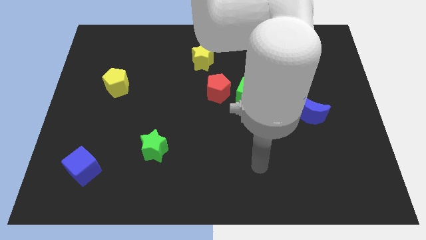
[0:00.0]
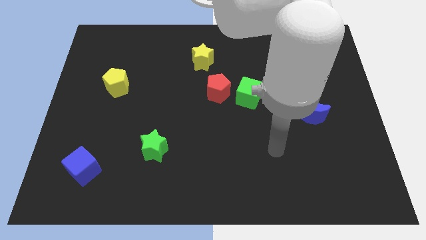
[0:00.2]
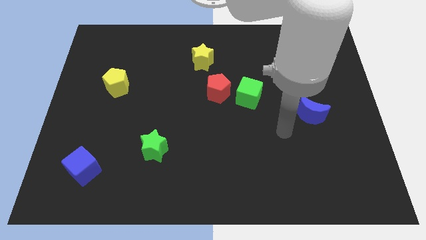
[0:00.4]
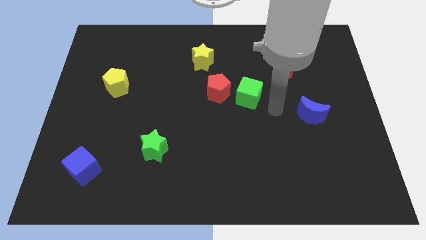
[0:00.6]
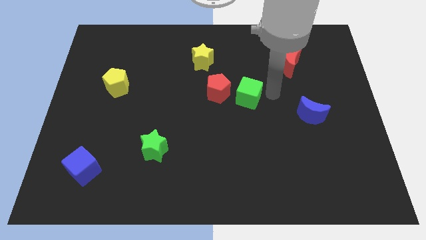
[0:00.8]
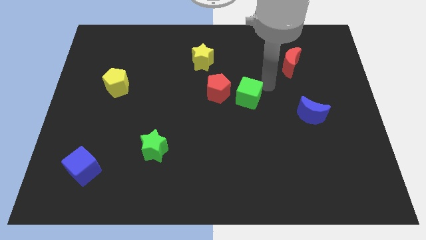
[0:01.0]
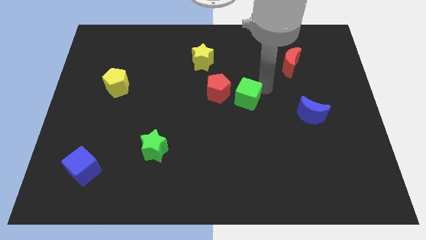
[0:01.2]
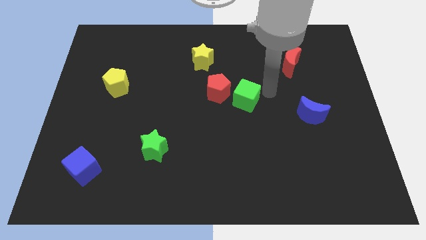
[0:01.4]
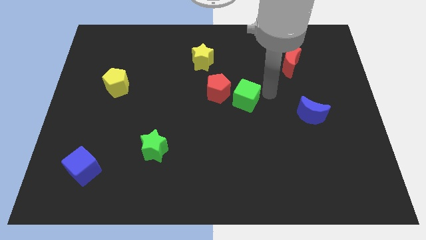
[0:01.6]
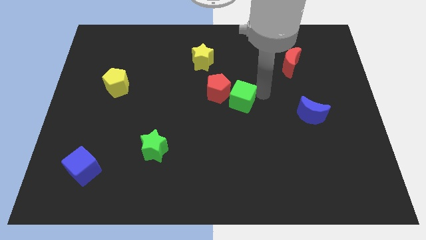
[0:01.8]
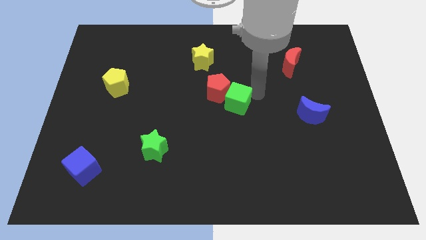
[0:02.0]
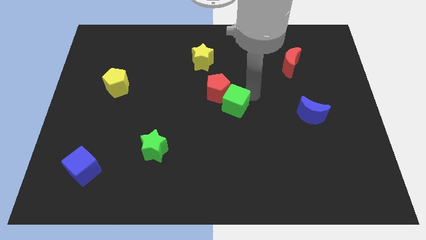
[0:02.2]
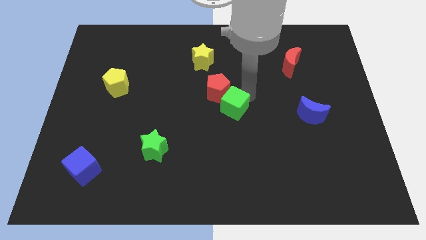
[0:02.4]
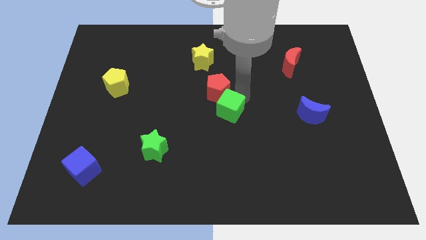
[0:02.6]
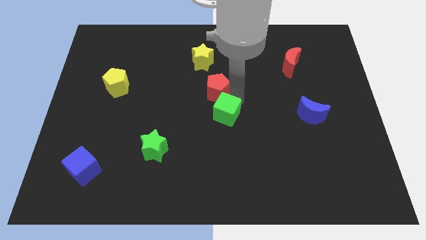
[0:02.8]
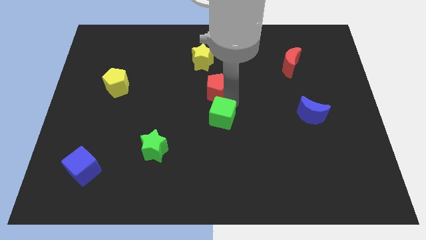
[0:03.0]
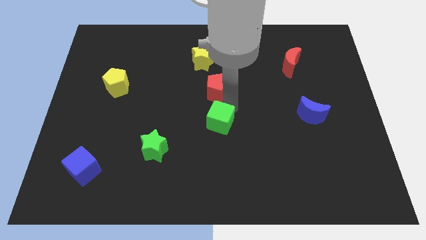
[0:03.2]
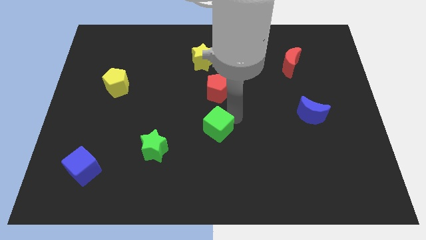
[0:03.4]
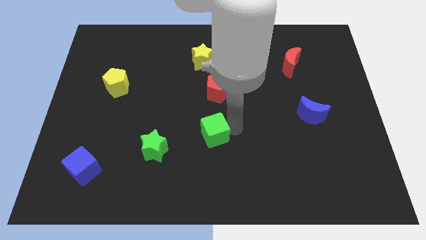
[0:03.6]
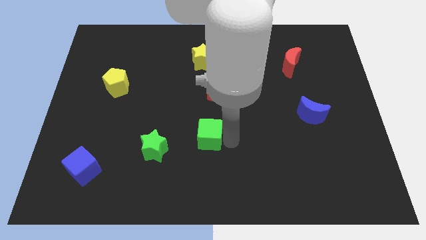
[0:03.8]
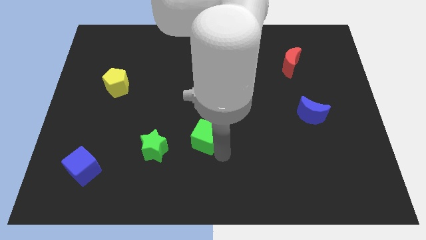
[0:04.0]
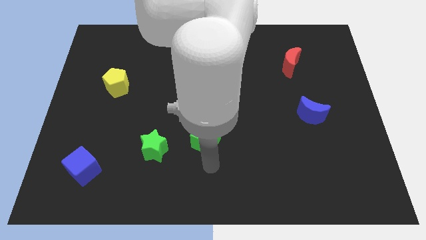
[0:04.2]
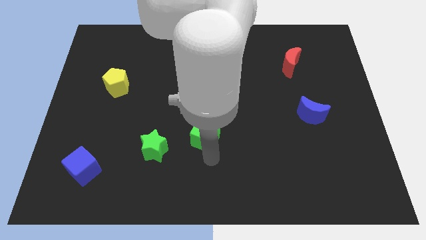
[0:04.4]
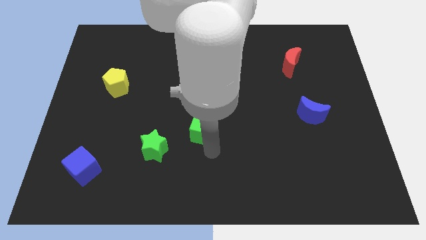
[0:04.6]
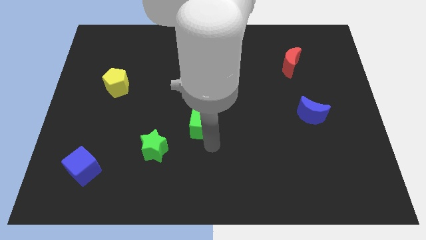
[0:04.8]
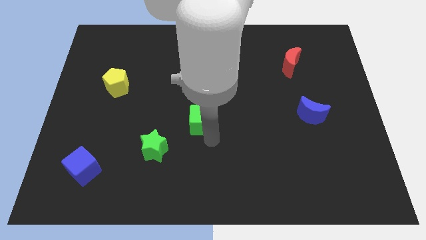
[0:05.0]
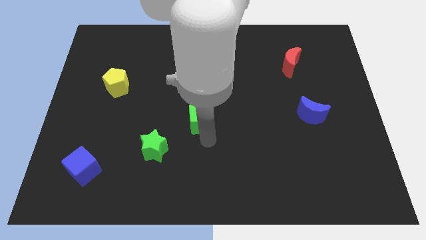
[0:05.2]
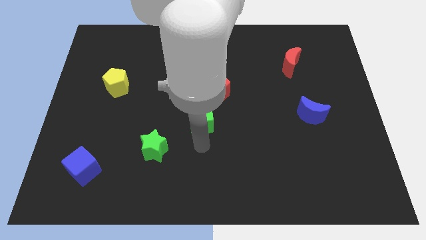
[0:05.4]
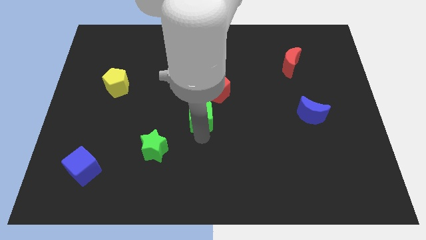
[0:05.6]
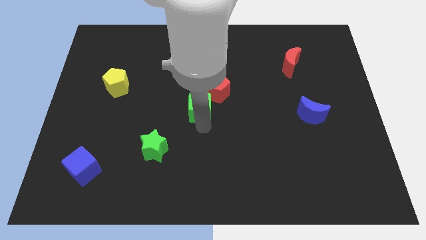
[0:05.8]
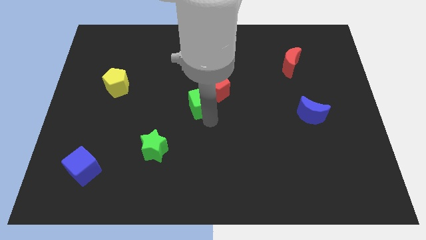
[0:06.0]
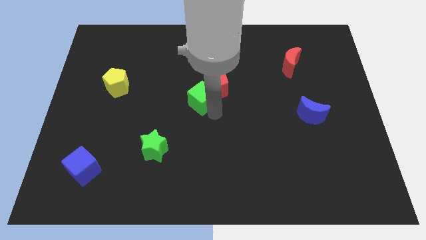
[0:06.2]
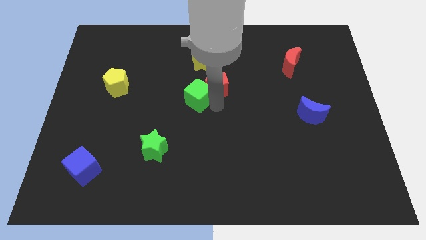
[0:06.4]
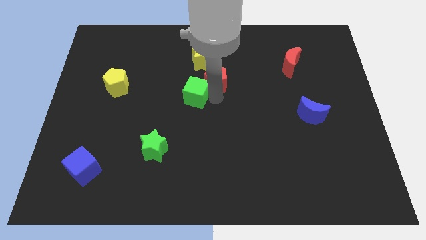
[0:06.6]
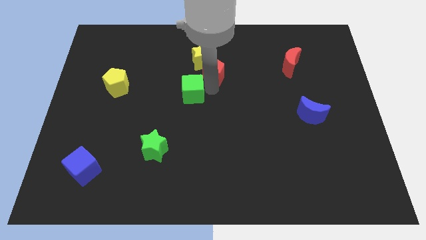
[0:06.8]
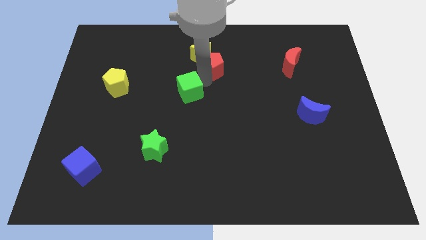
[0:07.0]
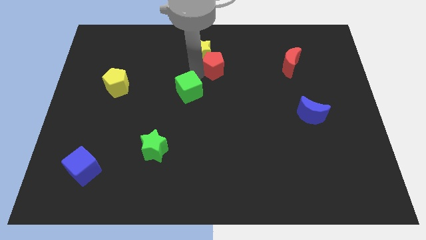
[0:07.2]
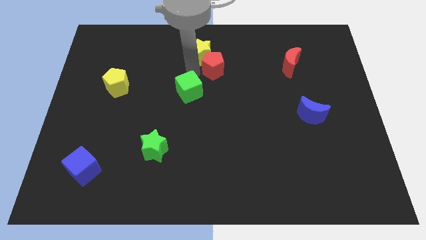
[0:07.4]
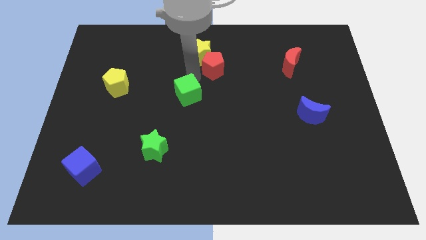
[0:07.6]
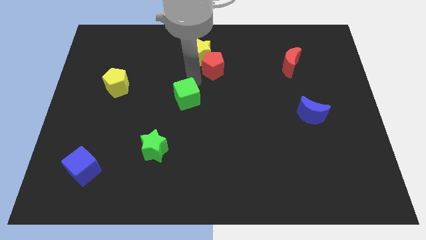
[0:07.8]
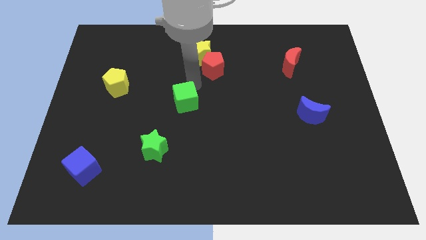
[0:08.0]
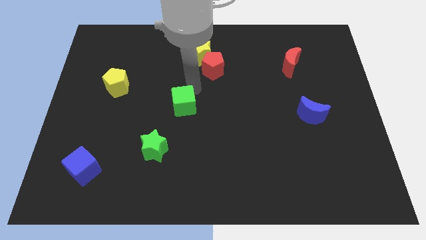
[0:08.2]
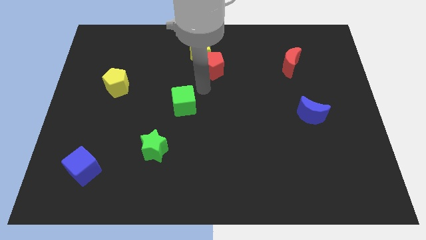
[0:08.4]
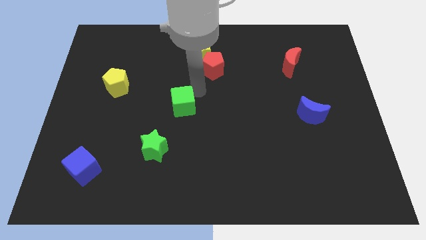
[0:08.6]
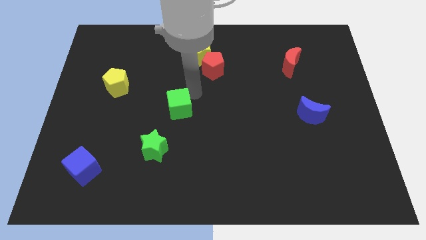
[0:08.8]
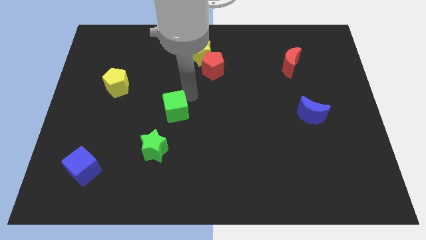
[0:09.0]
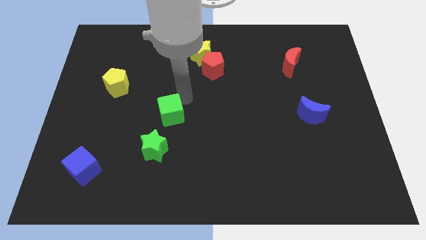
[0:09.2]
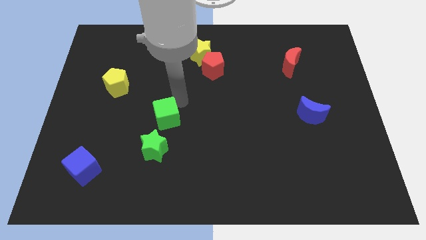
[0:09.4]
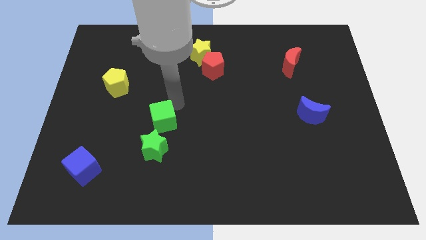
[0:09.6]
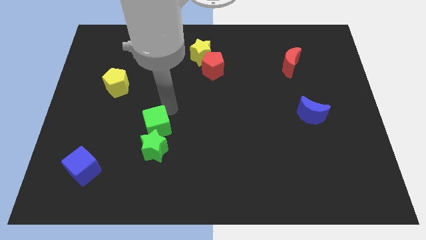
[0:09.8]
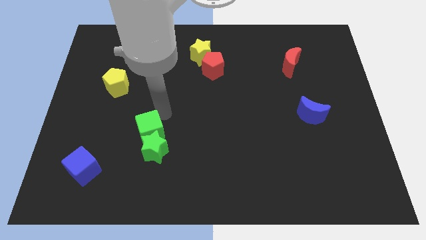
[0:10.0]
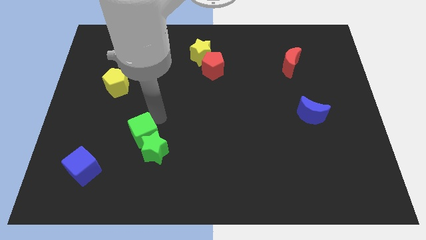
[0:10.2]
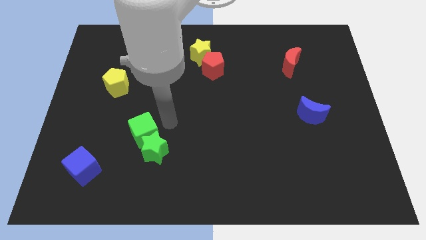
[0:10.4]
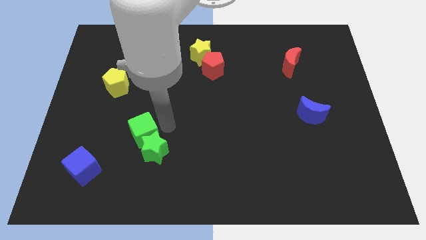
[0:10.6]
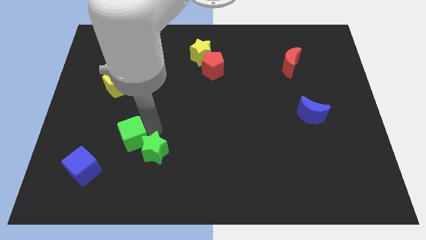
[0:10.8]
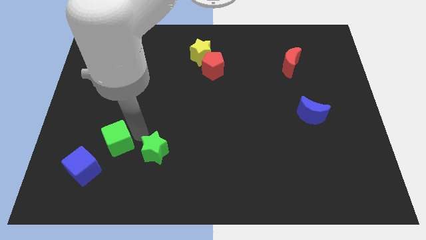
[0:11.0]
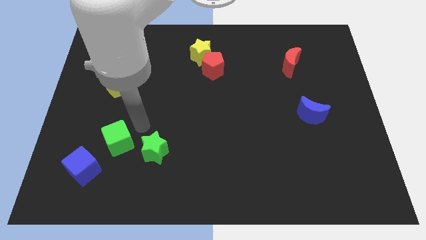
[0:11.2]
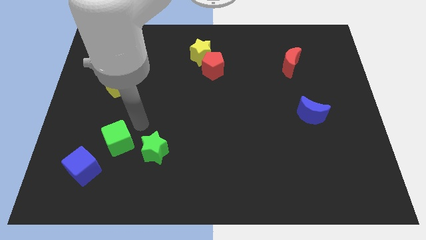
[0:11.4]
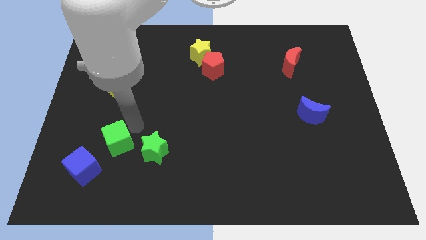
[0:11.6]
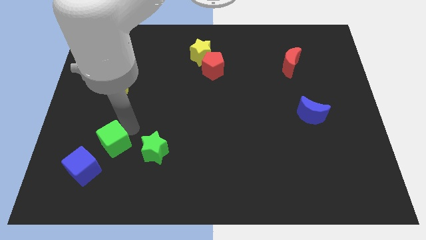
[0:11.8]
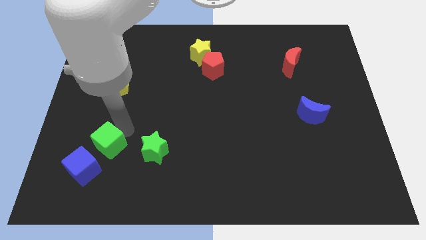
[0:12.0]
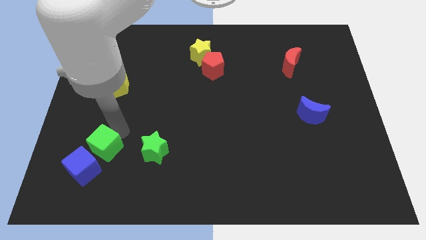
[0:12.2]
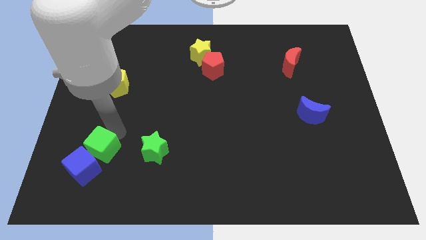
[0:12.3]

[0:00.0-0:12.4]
slide the green cube to the blue cube
